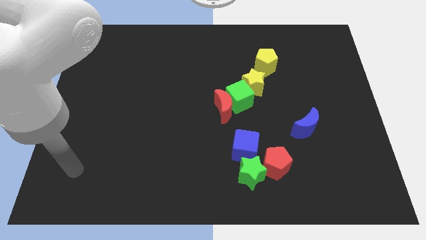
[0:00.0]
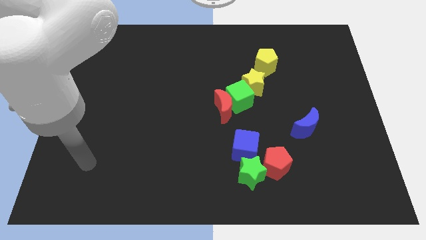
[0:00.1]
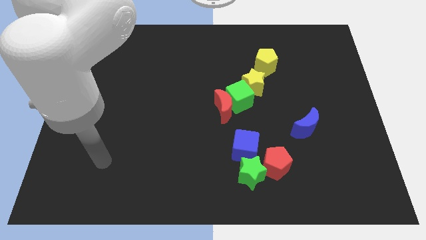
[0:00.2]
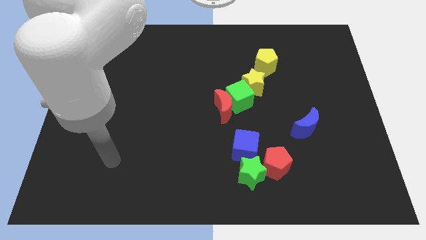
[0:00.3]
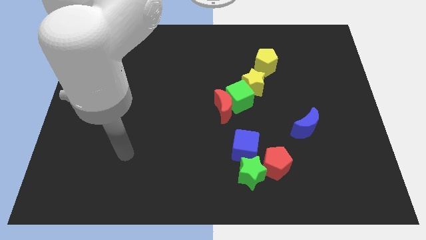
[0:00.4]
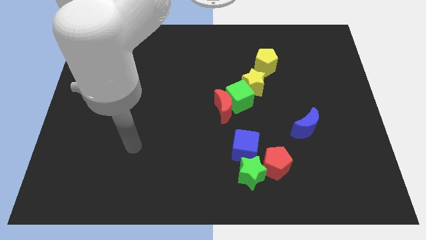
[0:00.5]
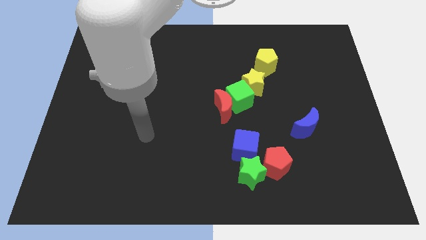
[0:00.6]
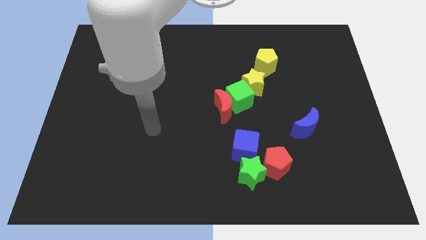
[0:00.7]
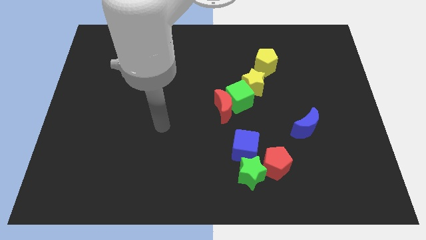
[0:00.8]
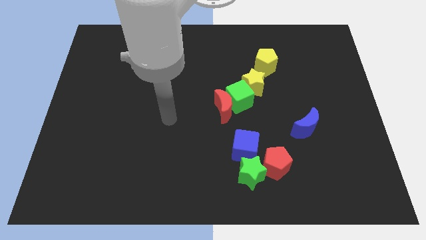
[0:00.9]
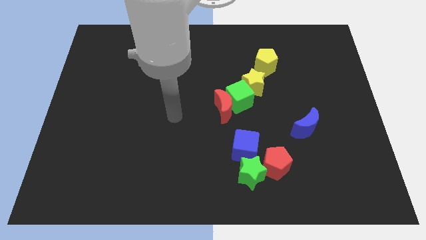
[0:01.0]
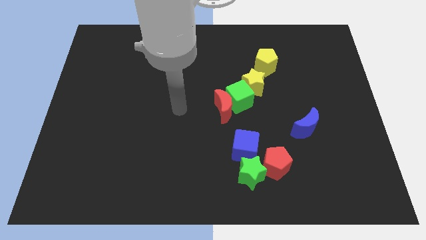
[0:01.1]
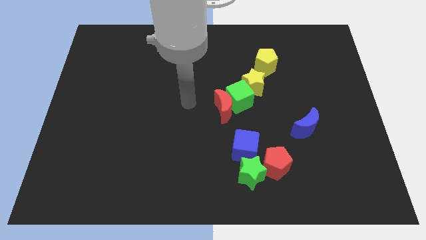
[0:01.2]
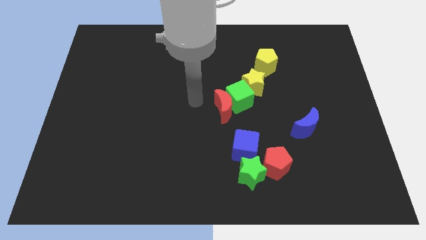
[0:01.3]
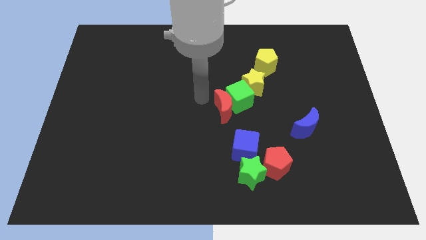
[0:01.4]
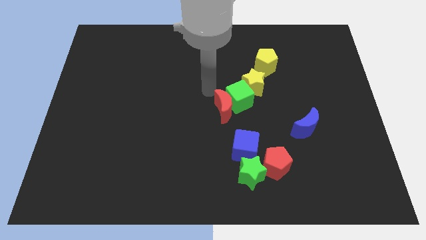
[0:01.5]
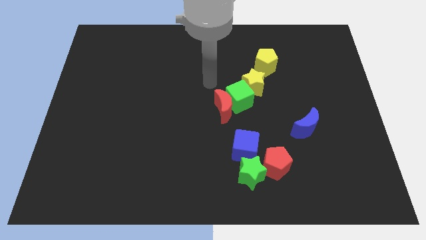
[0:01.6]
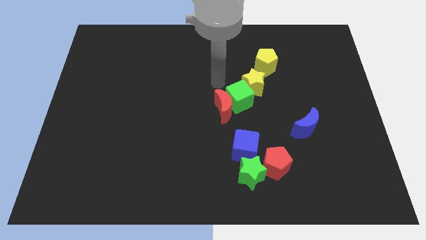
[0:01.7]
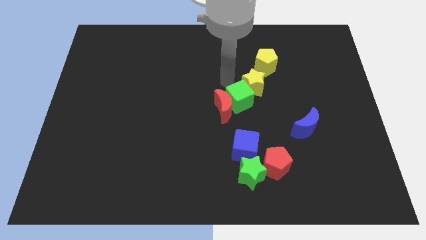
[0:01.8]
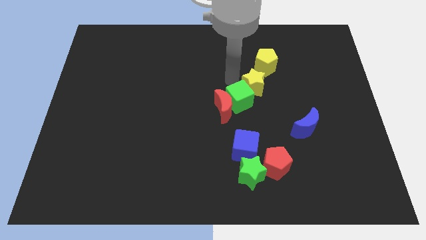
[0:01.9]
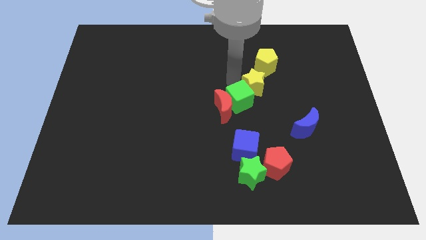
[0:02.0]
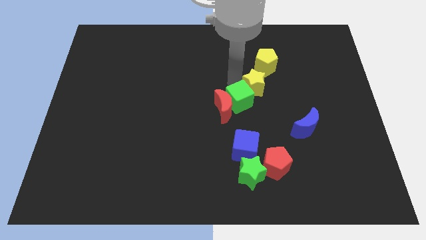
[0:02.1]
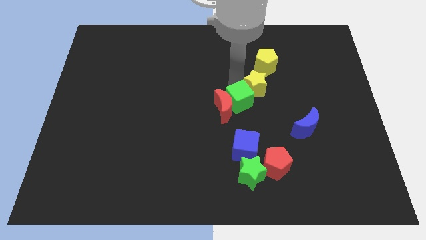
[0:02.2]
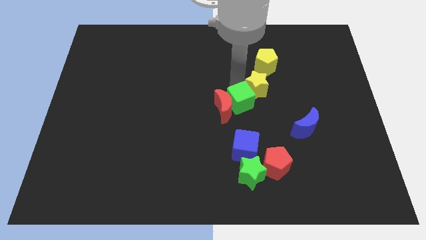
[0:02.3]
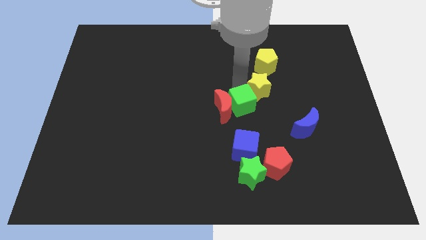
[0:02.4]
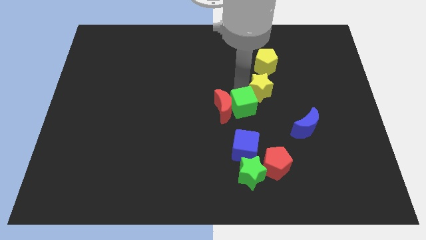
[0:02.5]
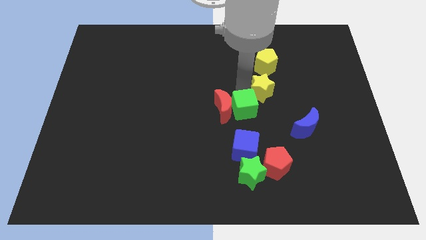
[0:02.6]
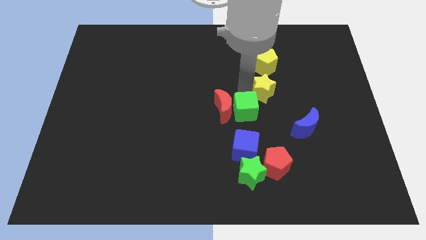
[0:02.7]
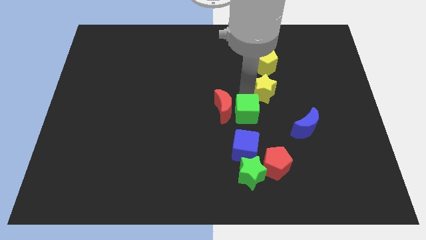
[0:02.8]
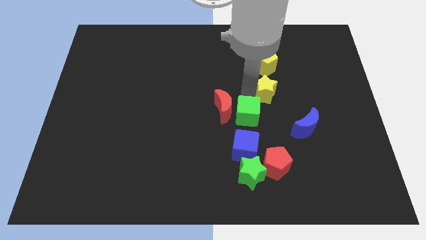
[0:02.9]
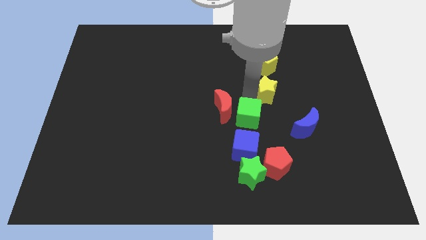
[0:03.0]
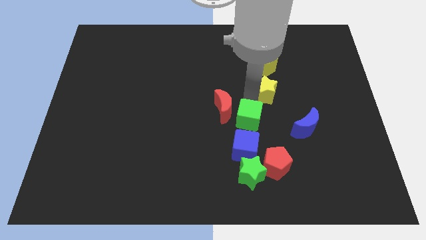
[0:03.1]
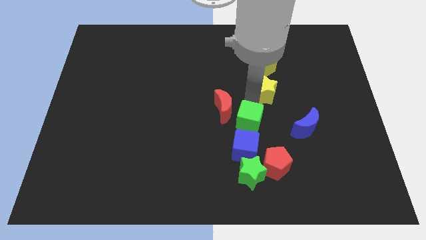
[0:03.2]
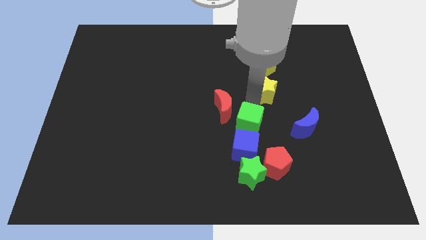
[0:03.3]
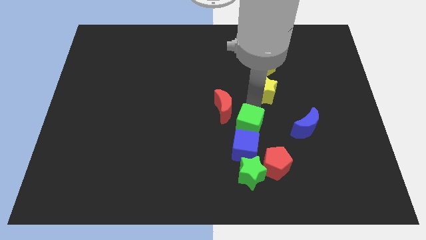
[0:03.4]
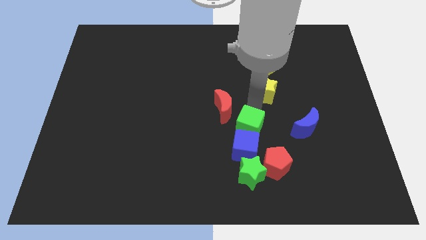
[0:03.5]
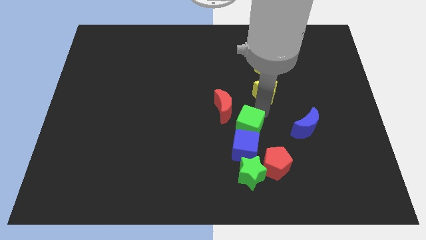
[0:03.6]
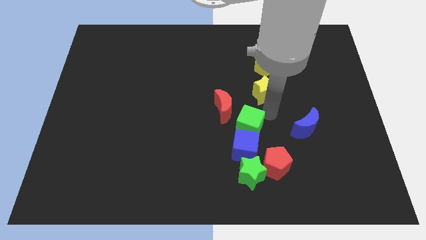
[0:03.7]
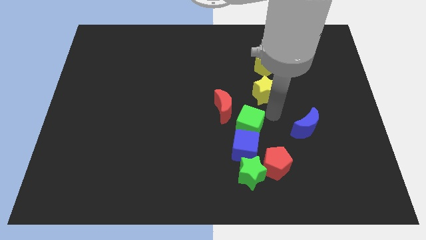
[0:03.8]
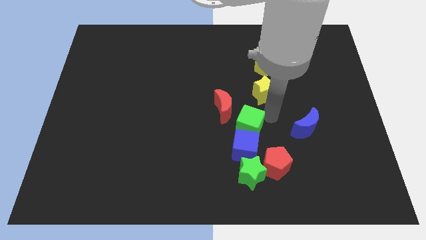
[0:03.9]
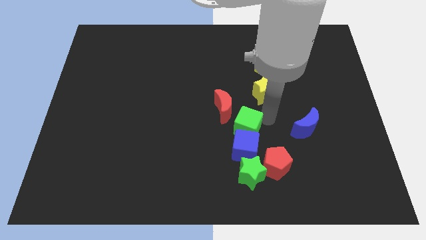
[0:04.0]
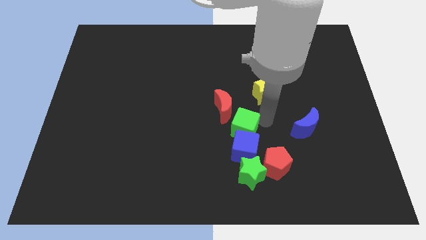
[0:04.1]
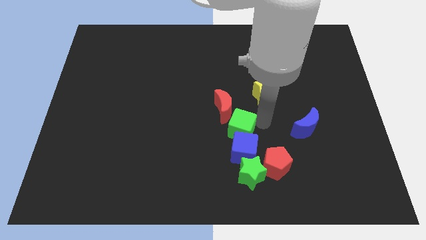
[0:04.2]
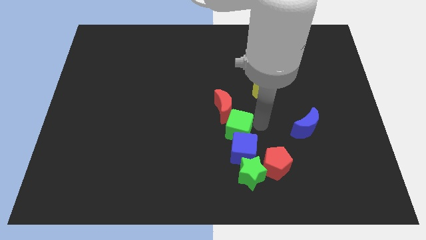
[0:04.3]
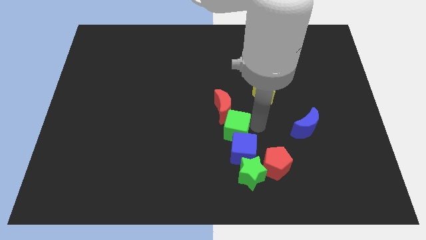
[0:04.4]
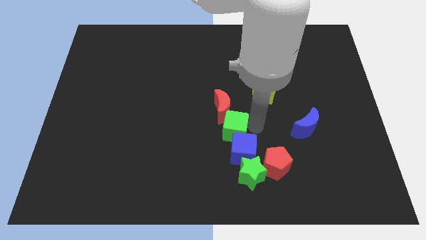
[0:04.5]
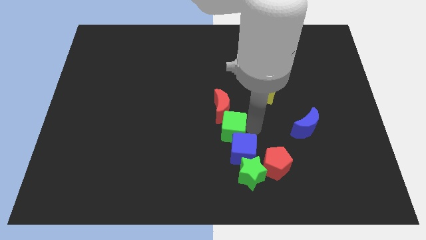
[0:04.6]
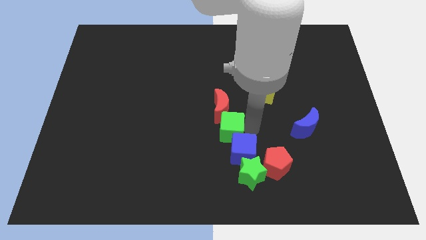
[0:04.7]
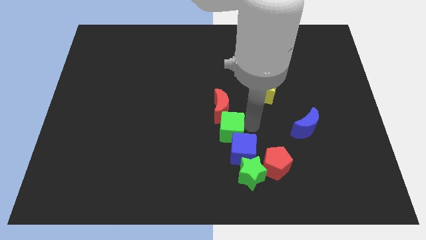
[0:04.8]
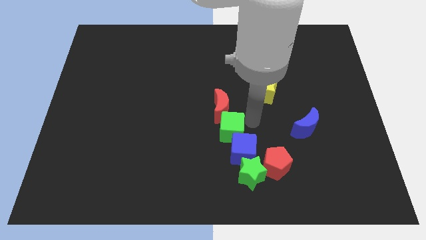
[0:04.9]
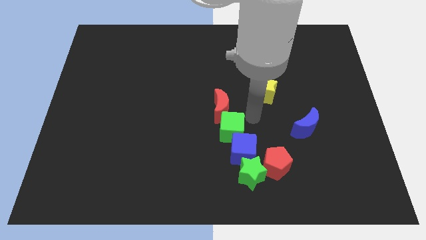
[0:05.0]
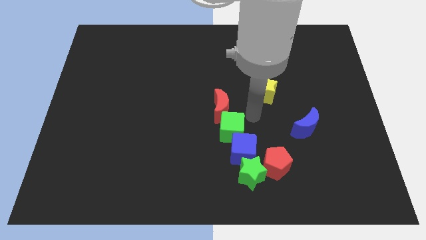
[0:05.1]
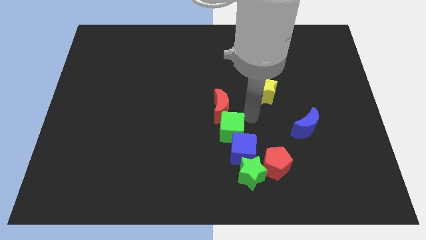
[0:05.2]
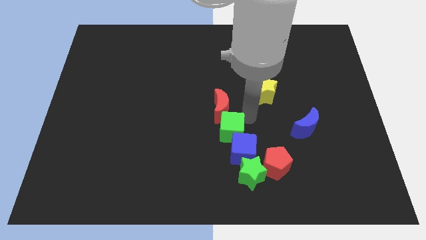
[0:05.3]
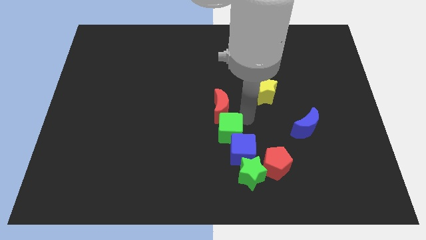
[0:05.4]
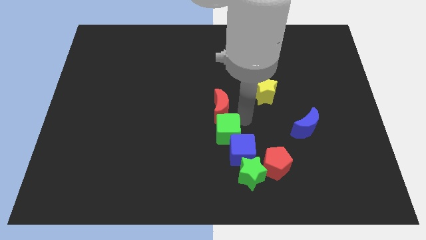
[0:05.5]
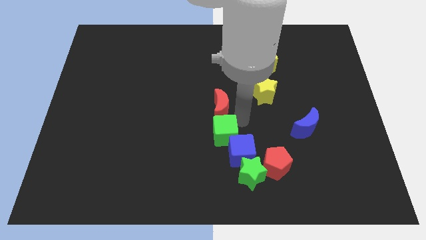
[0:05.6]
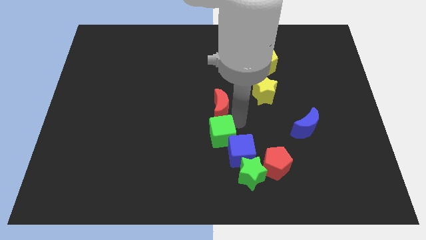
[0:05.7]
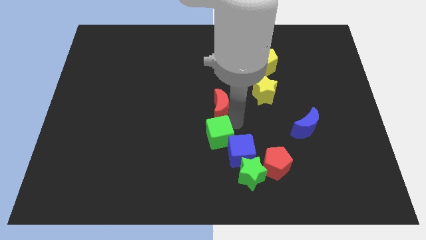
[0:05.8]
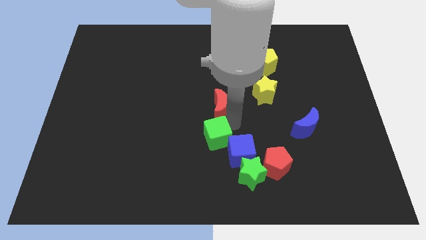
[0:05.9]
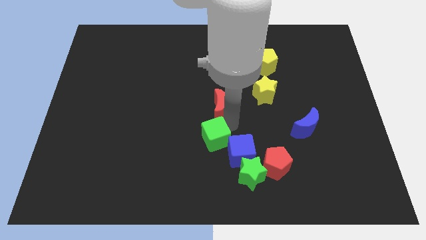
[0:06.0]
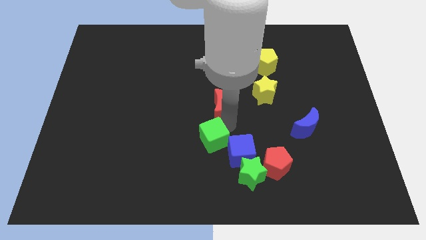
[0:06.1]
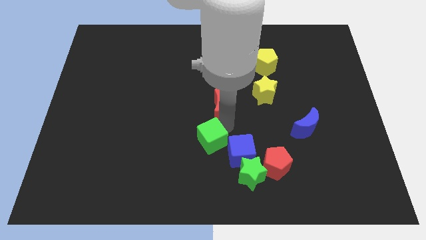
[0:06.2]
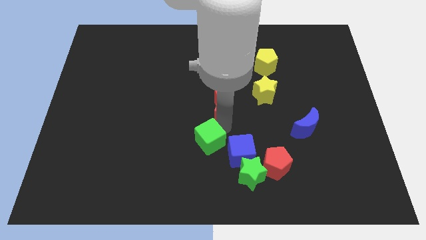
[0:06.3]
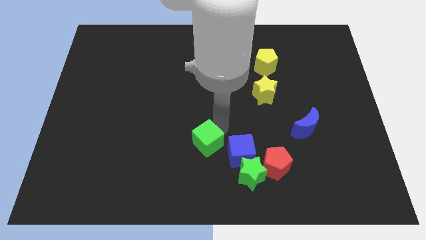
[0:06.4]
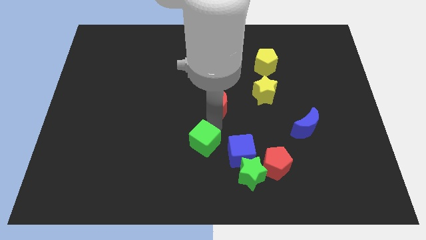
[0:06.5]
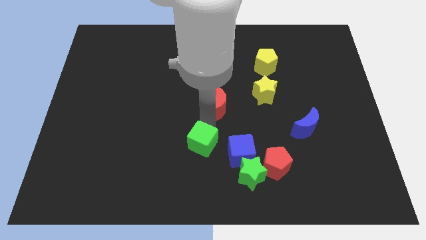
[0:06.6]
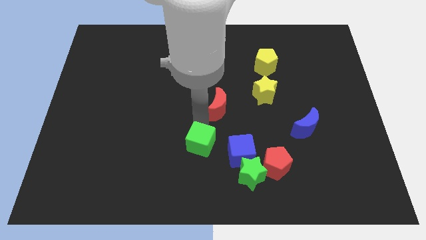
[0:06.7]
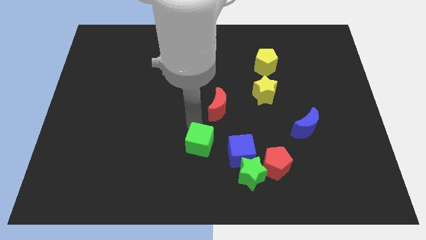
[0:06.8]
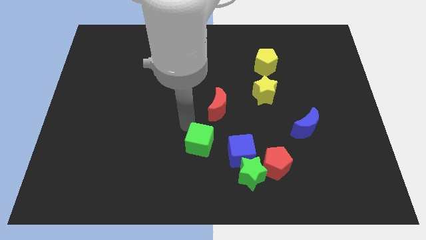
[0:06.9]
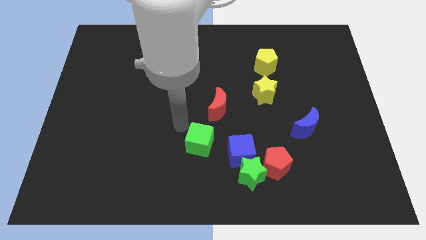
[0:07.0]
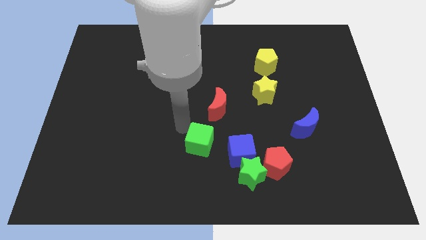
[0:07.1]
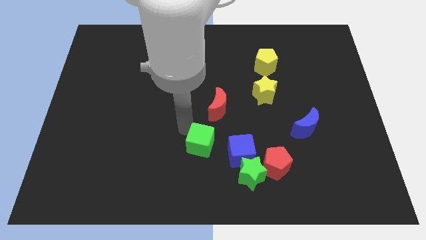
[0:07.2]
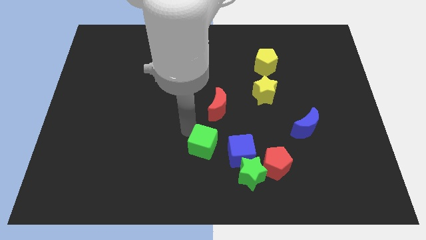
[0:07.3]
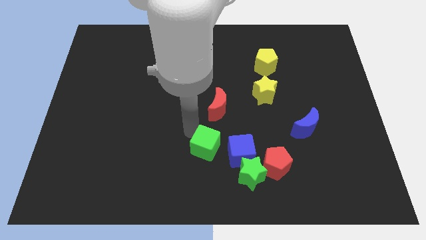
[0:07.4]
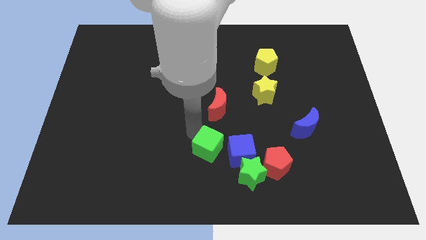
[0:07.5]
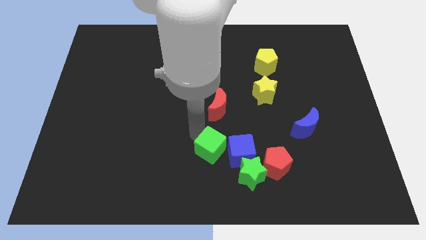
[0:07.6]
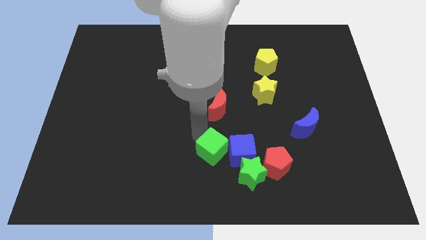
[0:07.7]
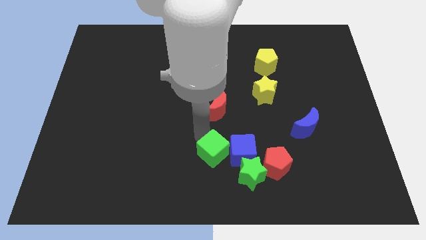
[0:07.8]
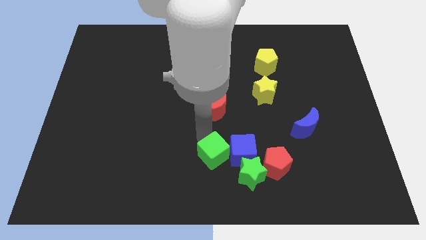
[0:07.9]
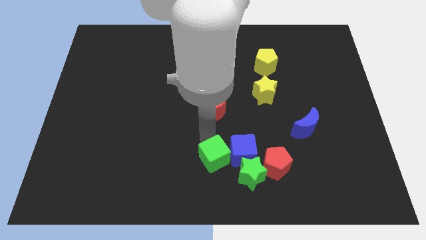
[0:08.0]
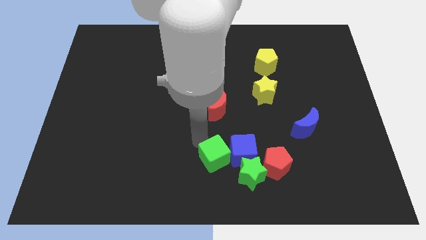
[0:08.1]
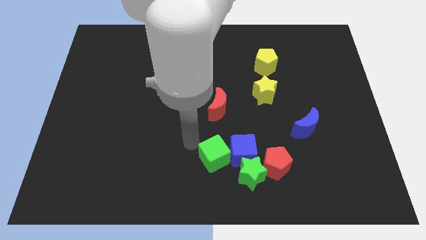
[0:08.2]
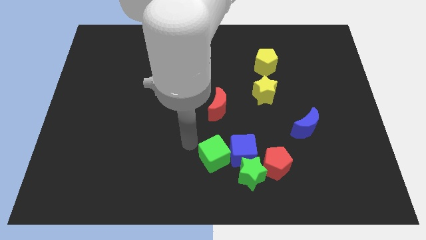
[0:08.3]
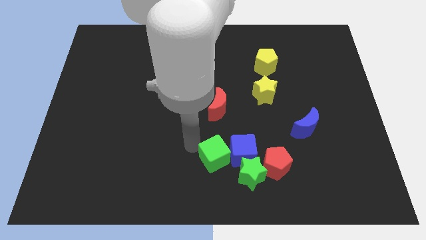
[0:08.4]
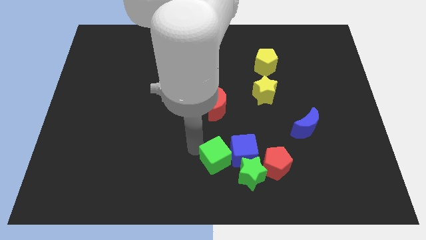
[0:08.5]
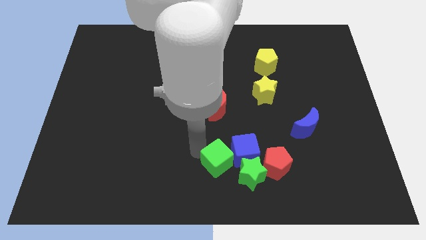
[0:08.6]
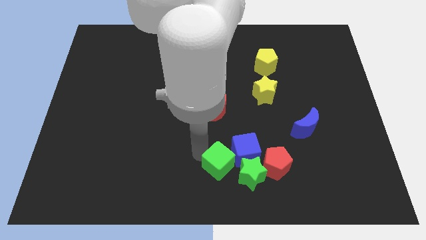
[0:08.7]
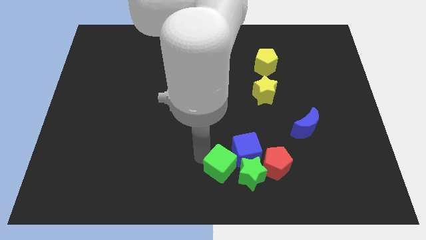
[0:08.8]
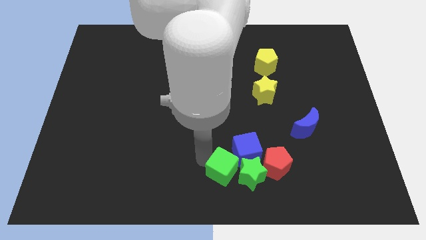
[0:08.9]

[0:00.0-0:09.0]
push the green cube towards the green star
